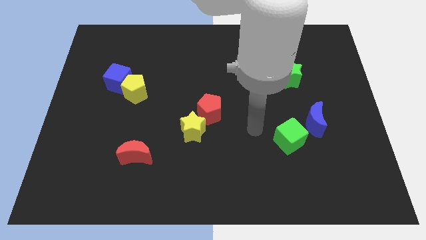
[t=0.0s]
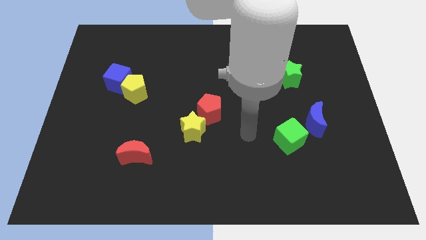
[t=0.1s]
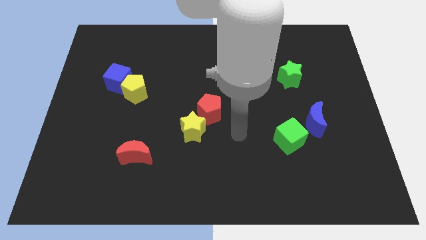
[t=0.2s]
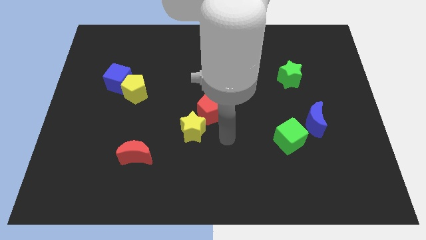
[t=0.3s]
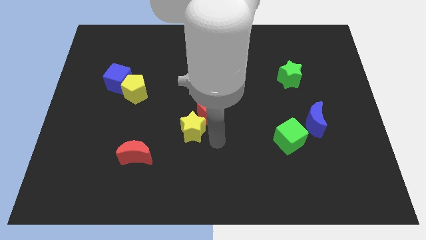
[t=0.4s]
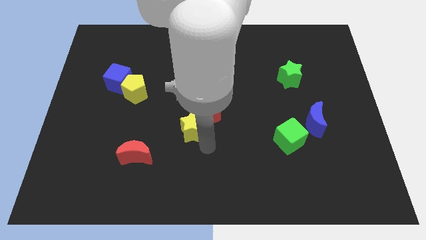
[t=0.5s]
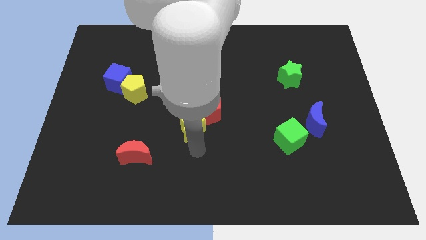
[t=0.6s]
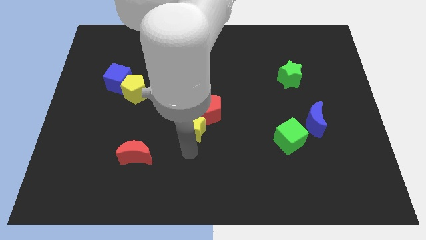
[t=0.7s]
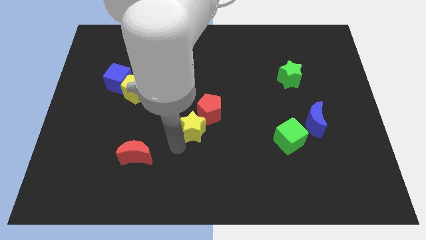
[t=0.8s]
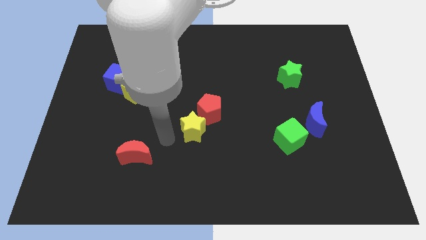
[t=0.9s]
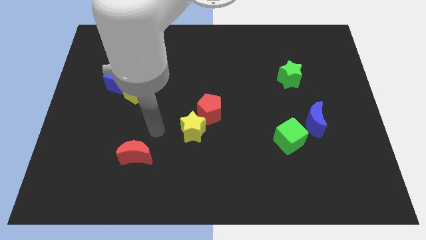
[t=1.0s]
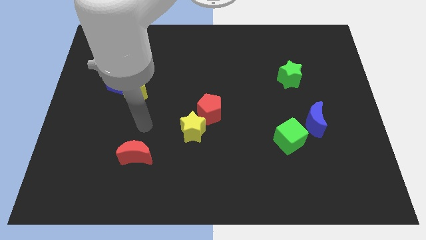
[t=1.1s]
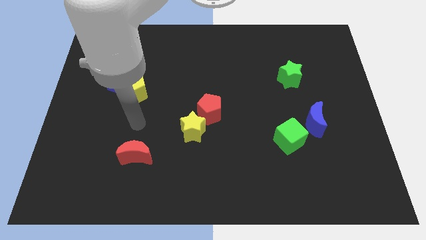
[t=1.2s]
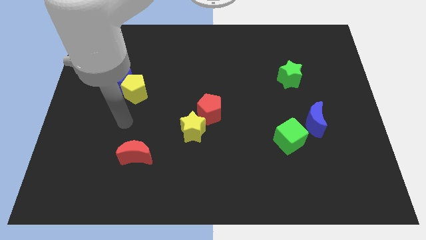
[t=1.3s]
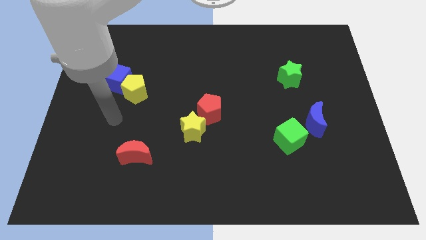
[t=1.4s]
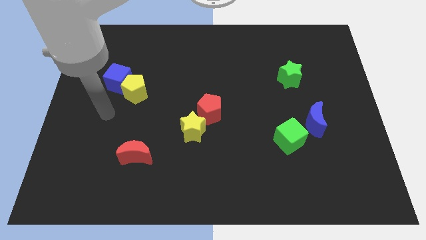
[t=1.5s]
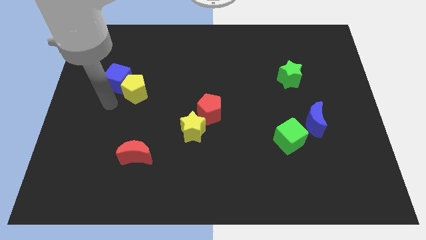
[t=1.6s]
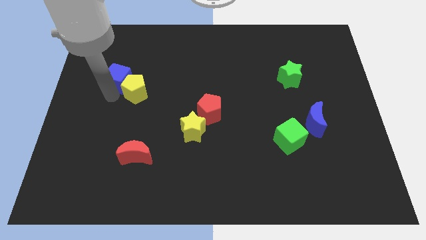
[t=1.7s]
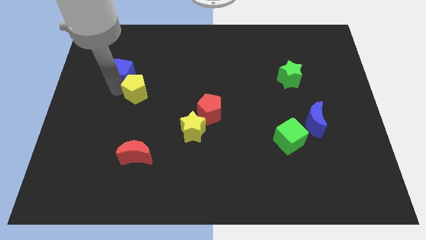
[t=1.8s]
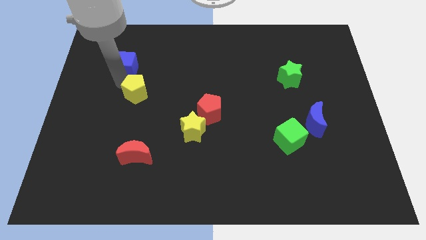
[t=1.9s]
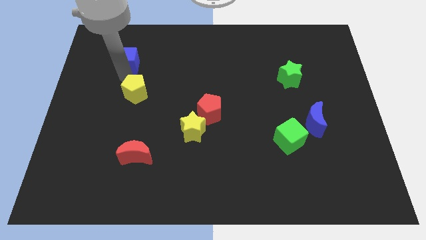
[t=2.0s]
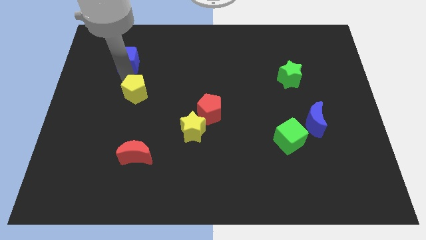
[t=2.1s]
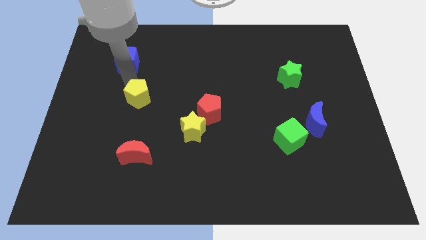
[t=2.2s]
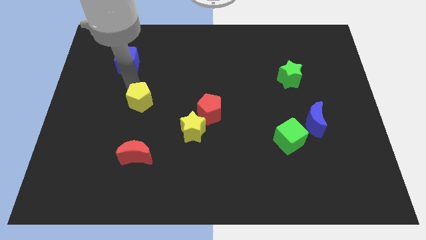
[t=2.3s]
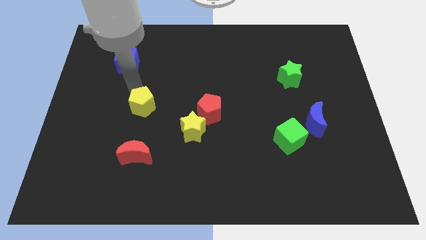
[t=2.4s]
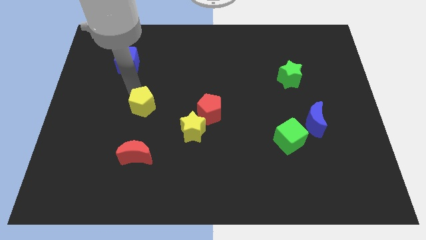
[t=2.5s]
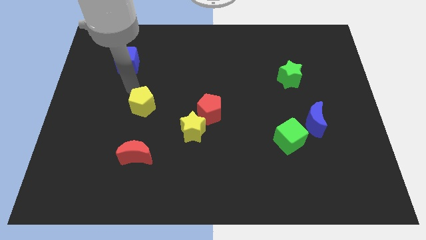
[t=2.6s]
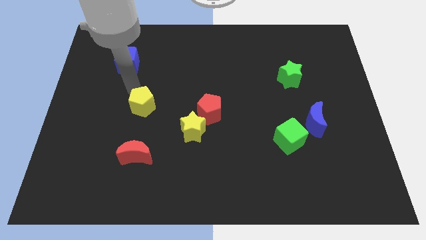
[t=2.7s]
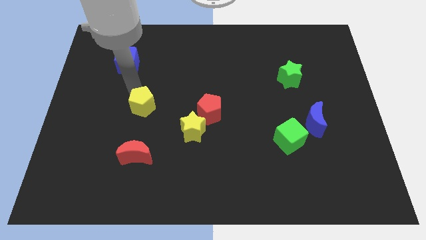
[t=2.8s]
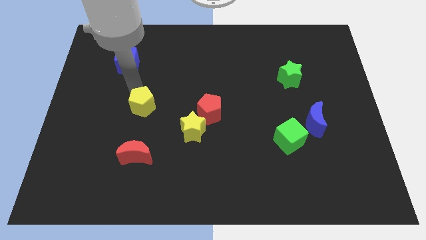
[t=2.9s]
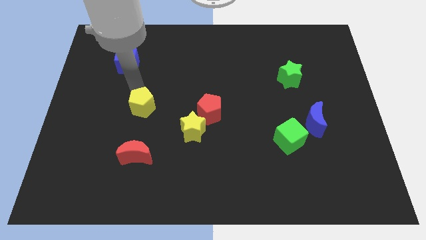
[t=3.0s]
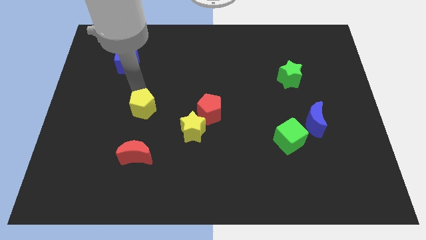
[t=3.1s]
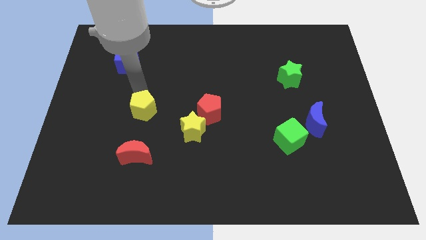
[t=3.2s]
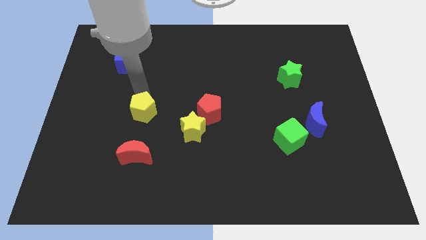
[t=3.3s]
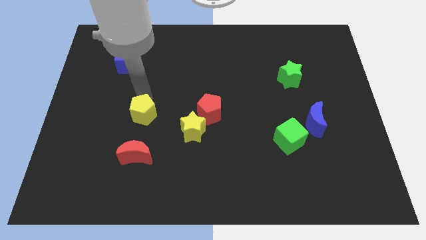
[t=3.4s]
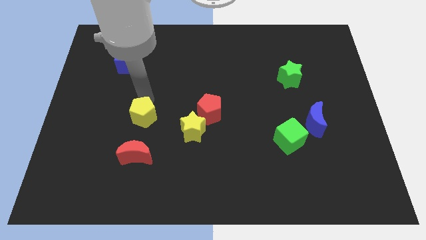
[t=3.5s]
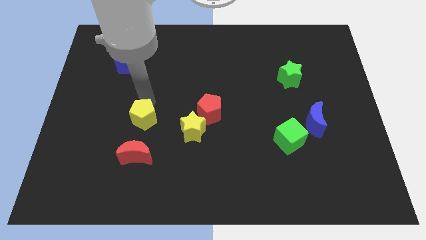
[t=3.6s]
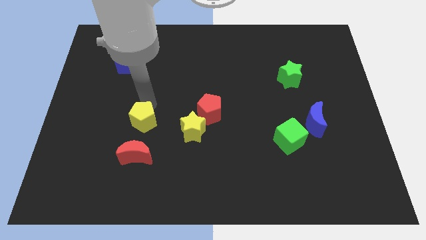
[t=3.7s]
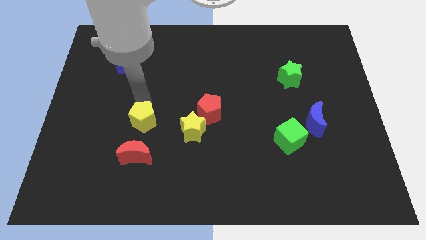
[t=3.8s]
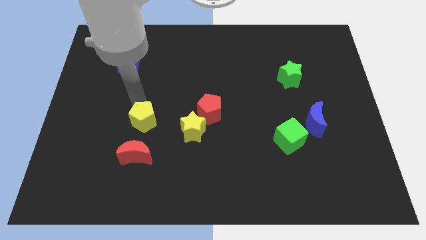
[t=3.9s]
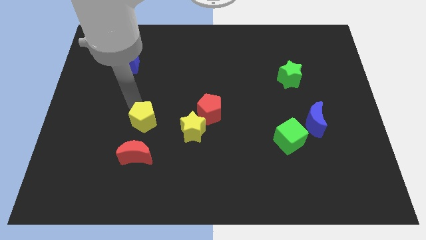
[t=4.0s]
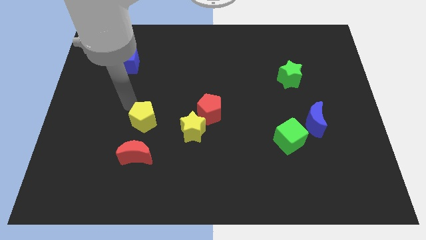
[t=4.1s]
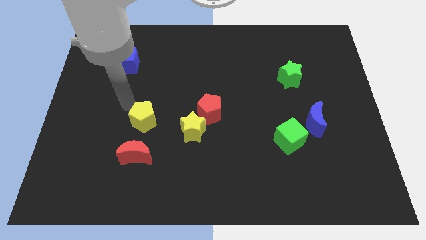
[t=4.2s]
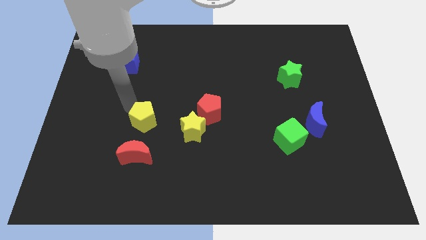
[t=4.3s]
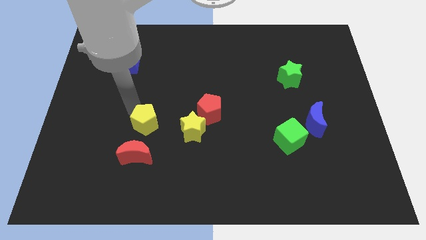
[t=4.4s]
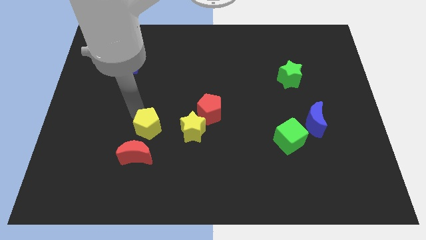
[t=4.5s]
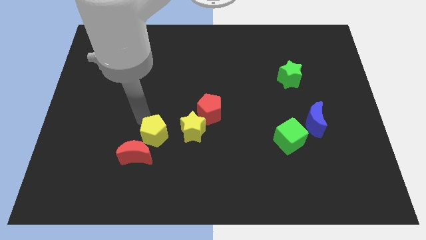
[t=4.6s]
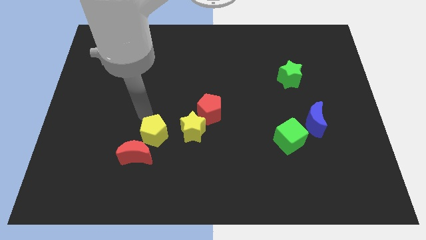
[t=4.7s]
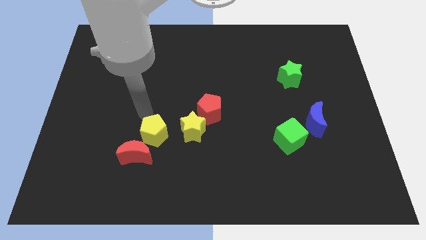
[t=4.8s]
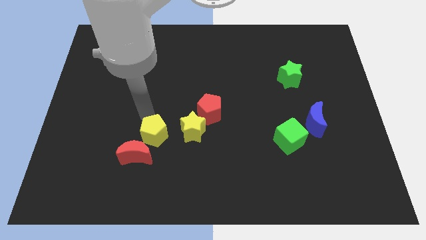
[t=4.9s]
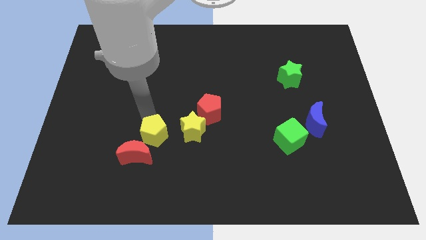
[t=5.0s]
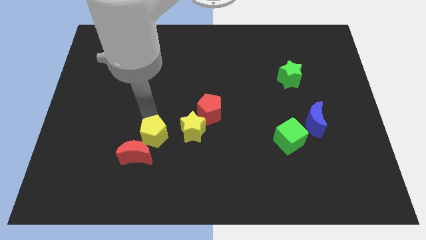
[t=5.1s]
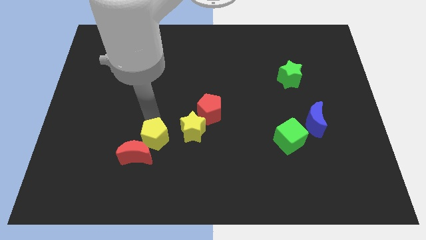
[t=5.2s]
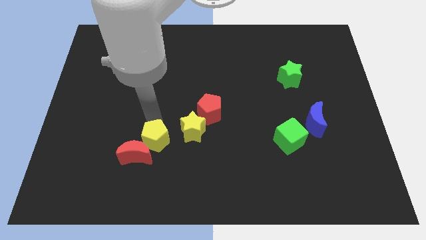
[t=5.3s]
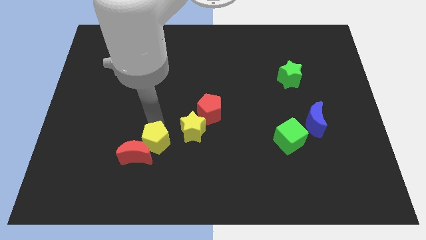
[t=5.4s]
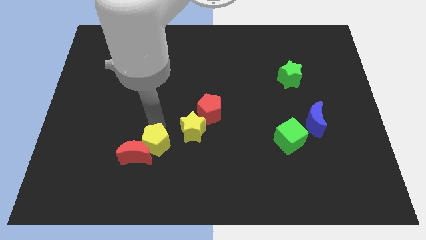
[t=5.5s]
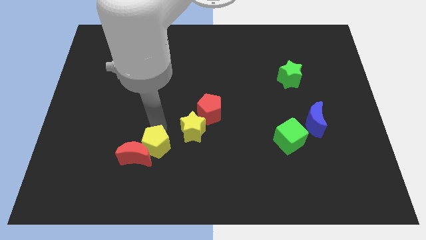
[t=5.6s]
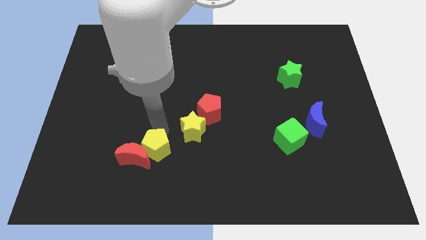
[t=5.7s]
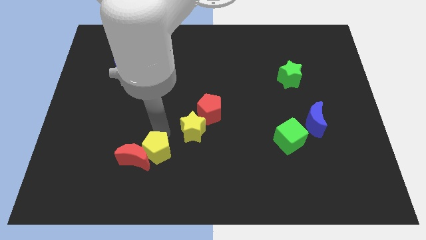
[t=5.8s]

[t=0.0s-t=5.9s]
push the yellow pentagon to the bottom right side of the red moon

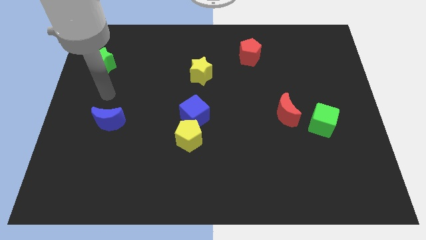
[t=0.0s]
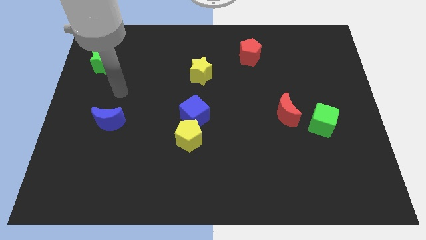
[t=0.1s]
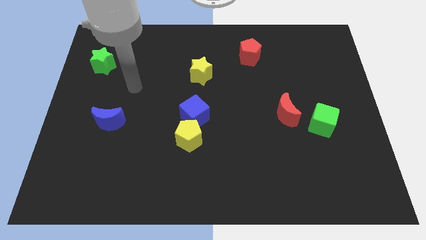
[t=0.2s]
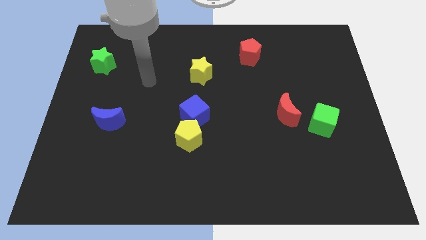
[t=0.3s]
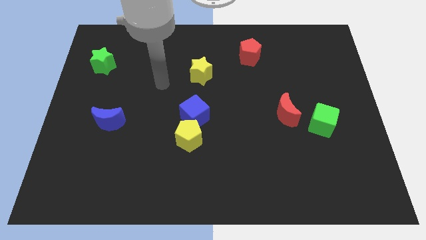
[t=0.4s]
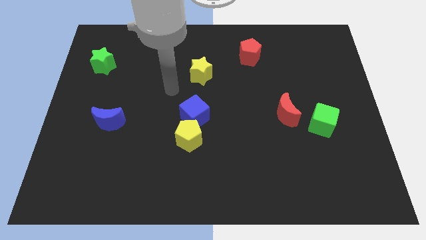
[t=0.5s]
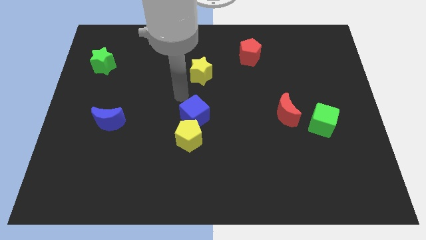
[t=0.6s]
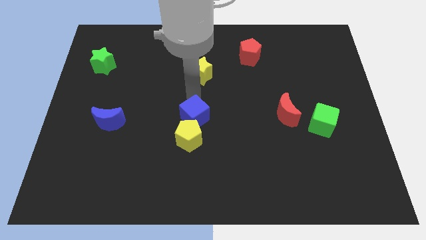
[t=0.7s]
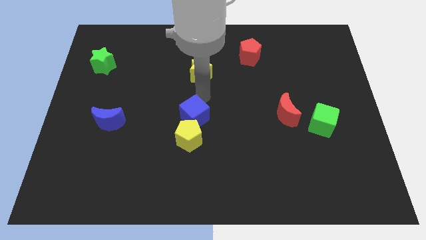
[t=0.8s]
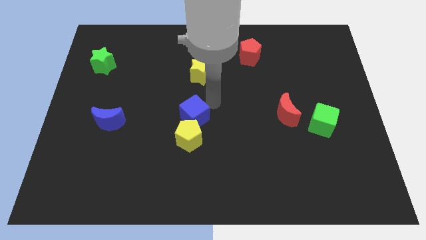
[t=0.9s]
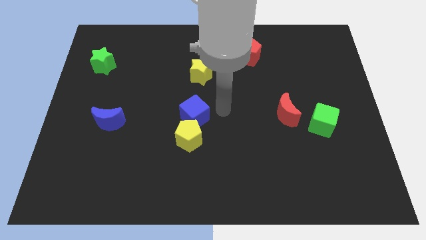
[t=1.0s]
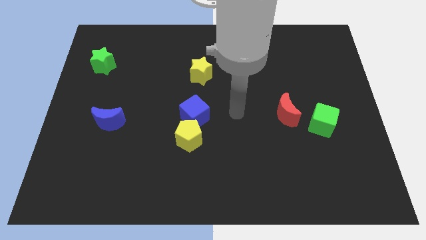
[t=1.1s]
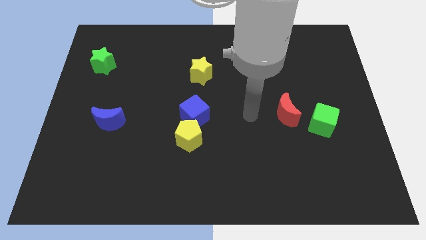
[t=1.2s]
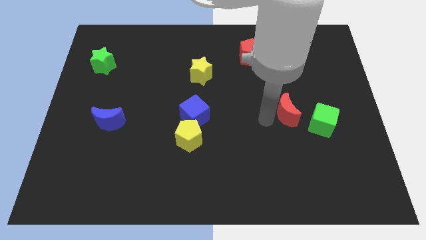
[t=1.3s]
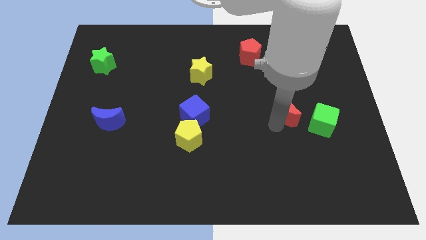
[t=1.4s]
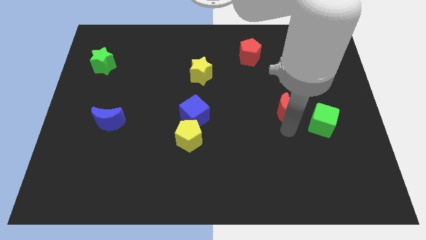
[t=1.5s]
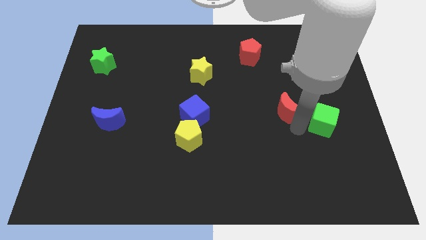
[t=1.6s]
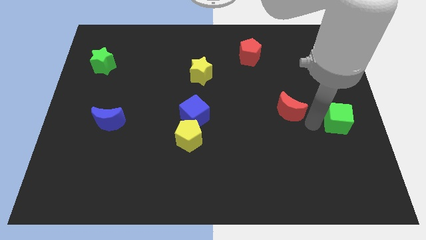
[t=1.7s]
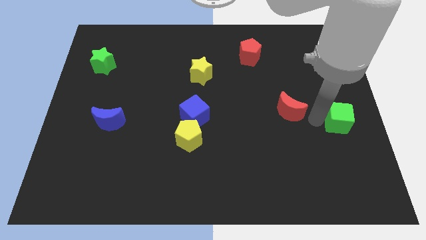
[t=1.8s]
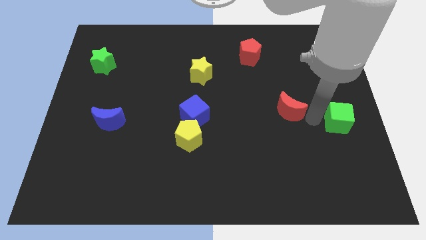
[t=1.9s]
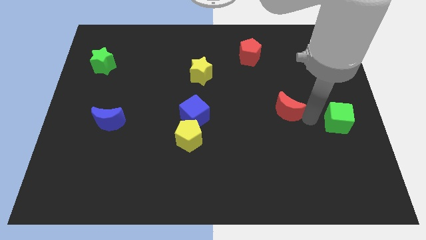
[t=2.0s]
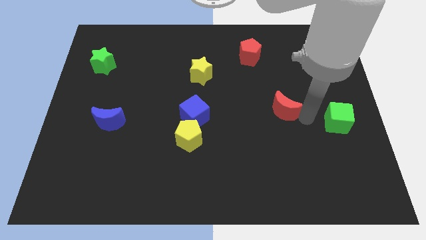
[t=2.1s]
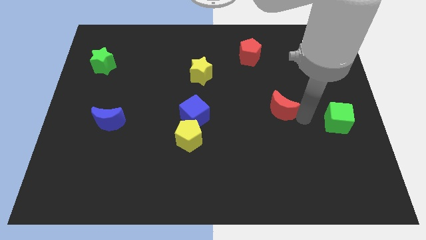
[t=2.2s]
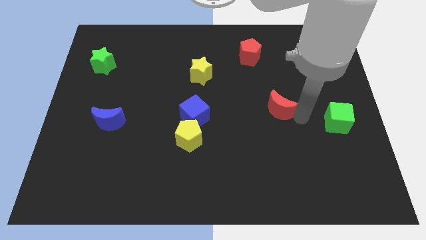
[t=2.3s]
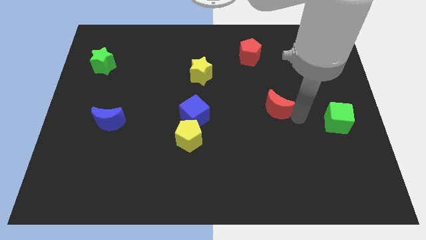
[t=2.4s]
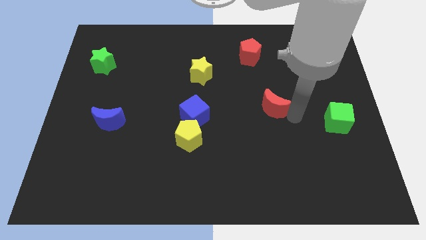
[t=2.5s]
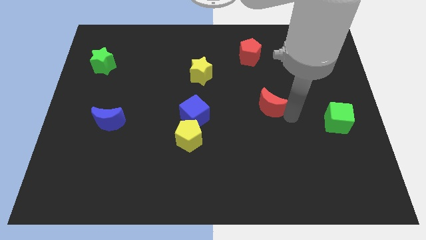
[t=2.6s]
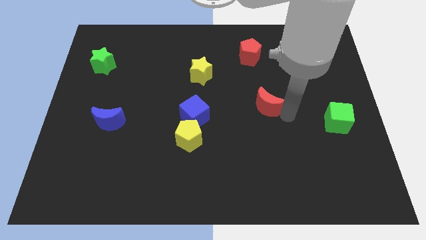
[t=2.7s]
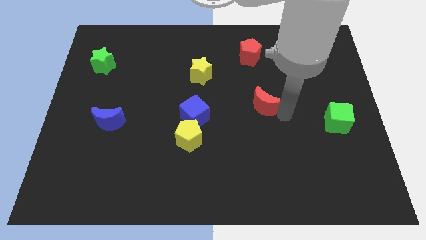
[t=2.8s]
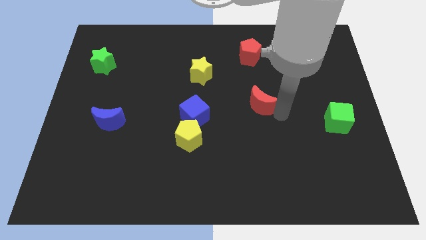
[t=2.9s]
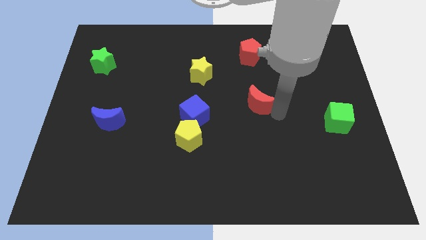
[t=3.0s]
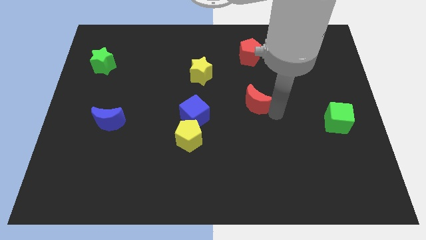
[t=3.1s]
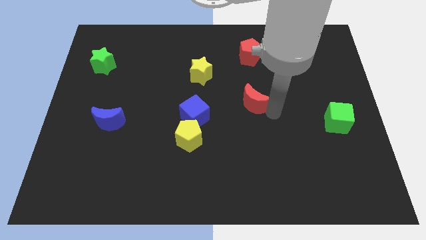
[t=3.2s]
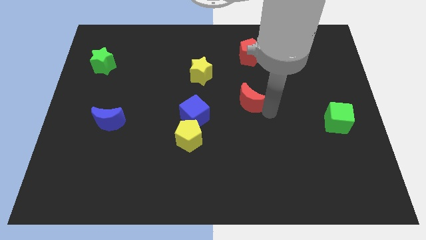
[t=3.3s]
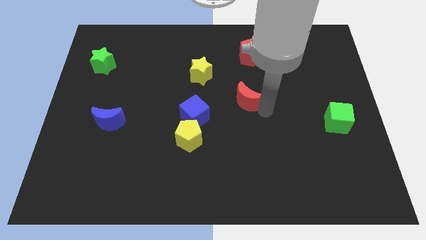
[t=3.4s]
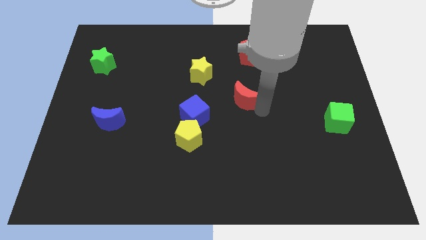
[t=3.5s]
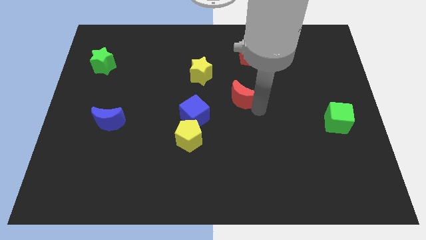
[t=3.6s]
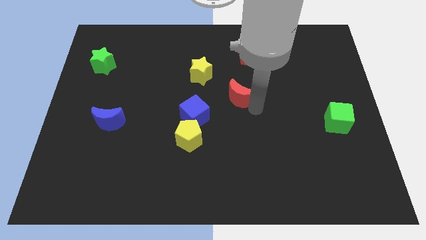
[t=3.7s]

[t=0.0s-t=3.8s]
push the red moon to the top right side of the blue cube
